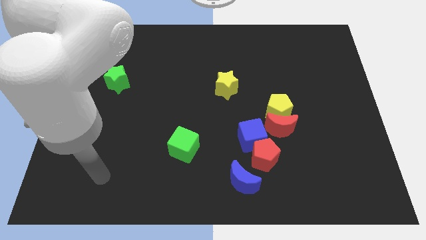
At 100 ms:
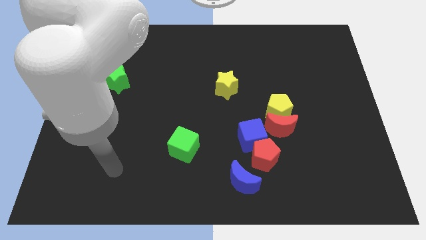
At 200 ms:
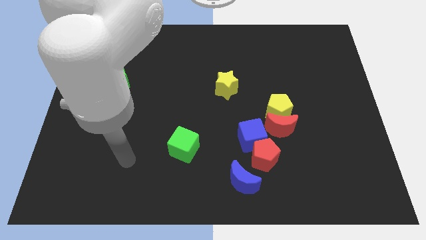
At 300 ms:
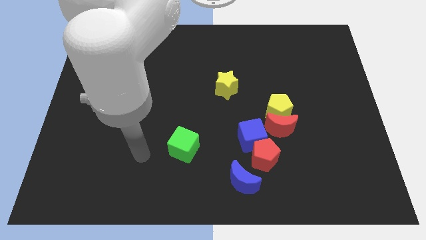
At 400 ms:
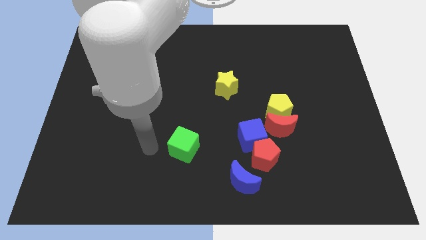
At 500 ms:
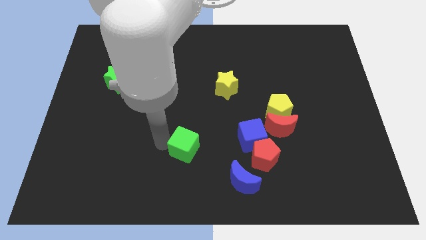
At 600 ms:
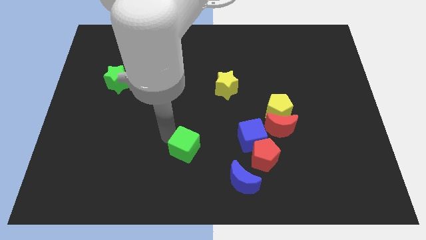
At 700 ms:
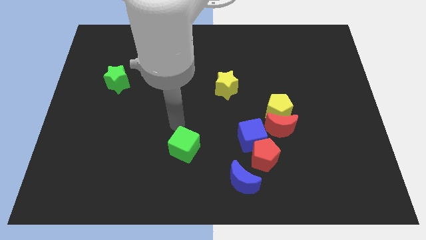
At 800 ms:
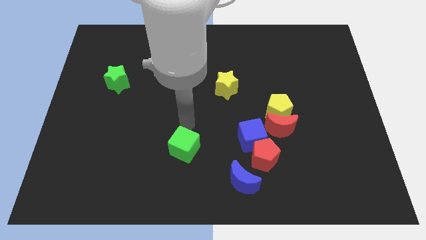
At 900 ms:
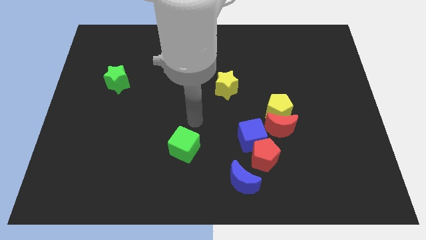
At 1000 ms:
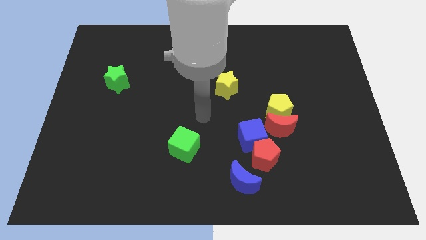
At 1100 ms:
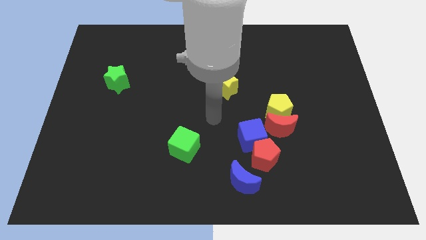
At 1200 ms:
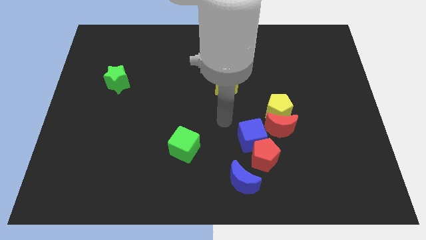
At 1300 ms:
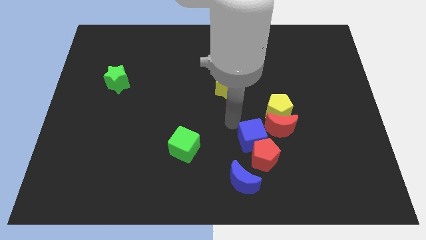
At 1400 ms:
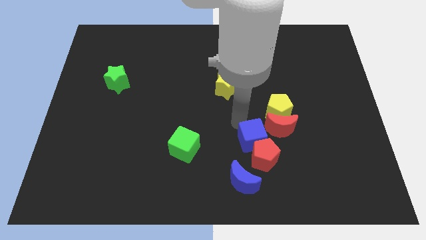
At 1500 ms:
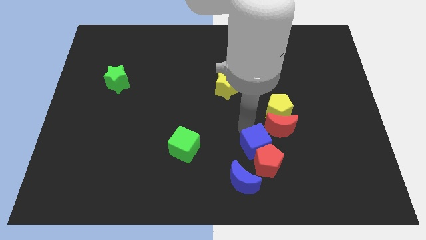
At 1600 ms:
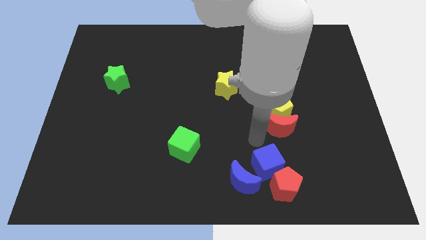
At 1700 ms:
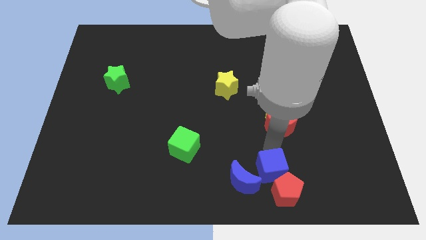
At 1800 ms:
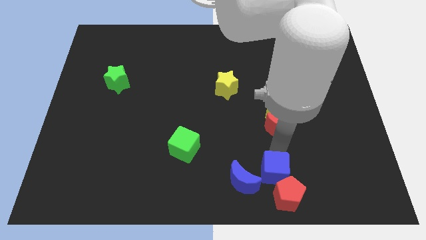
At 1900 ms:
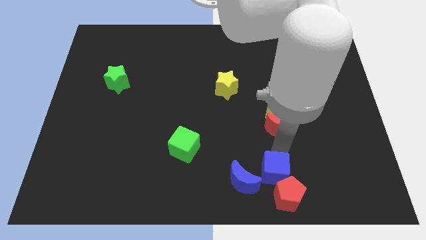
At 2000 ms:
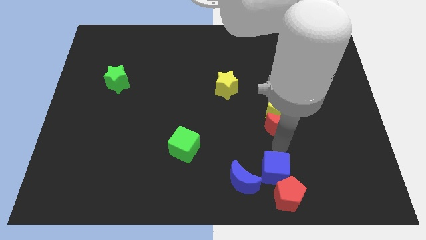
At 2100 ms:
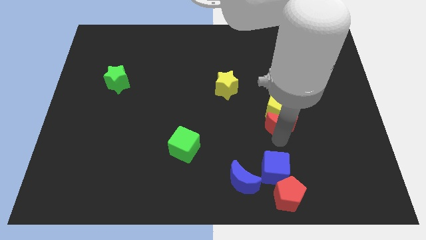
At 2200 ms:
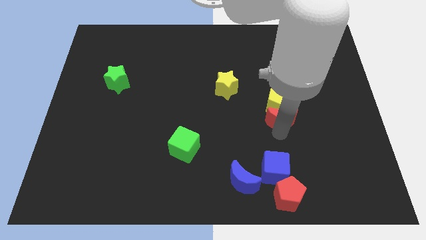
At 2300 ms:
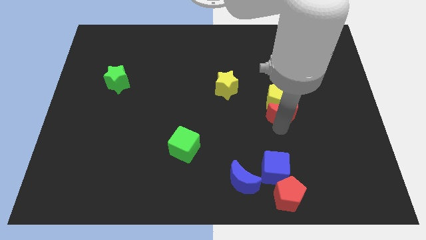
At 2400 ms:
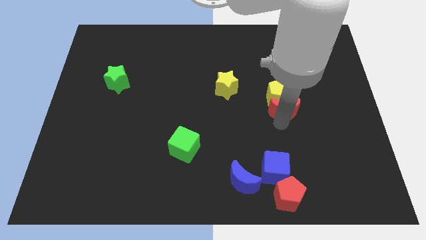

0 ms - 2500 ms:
move the red moon away from the group

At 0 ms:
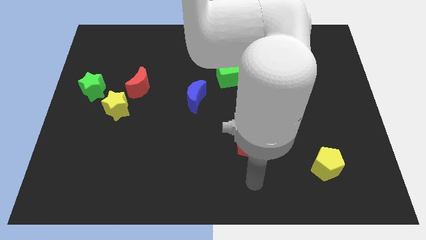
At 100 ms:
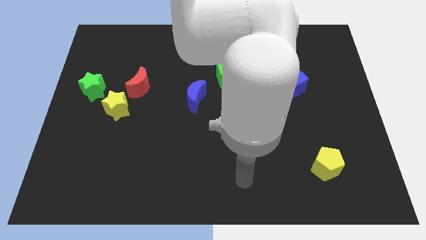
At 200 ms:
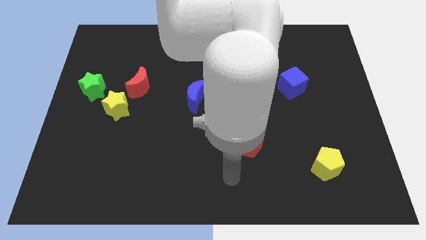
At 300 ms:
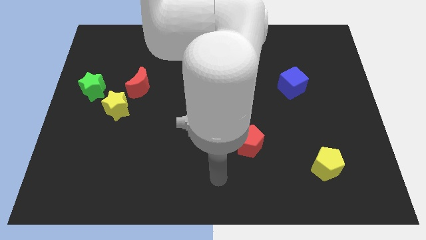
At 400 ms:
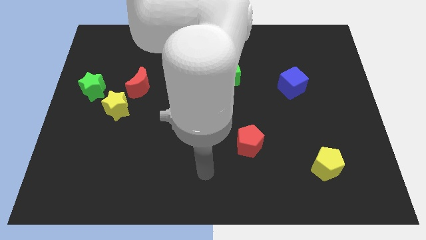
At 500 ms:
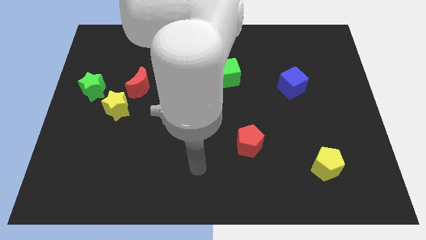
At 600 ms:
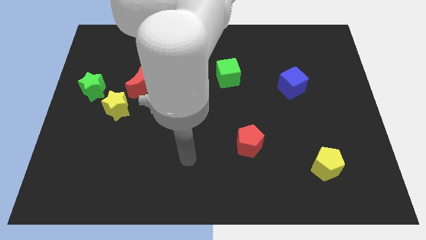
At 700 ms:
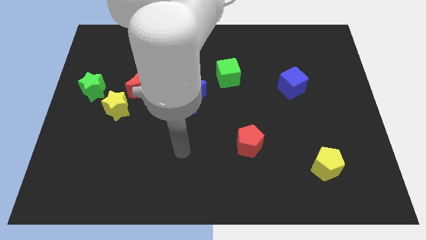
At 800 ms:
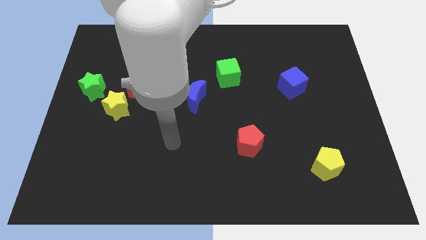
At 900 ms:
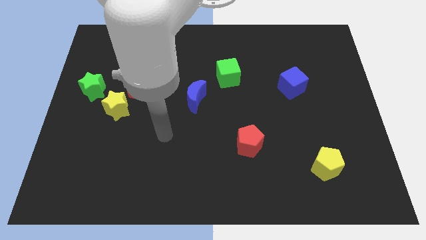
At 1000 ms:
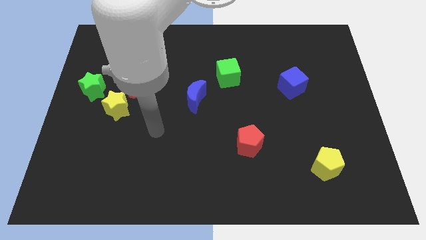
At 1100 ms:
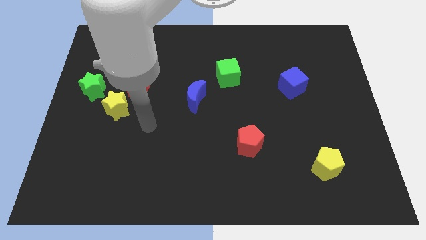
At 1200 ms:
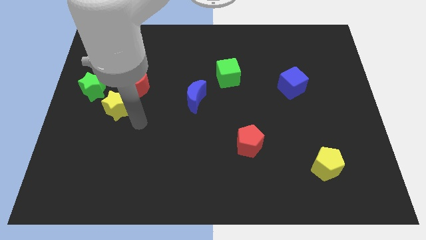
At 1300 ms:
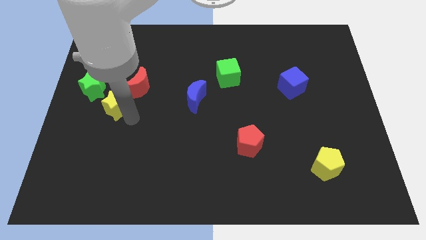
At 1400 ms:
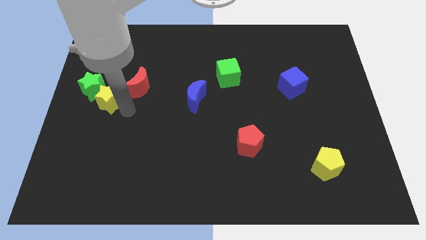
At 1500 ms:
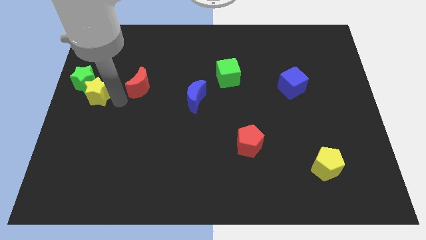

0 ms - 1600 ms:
move the red moon away from the yellow star

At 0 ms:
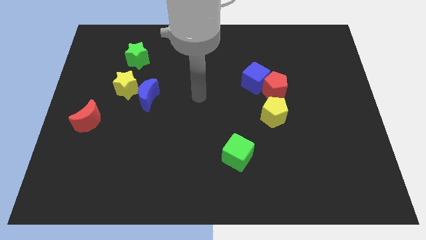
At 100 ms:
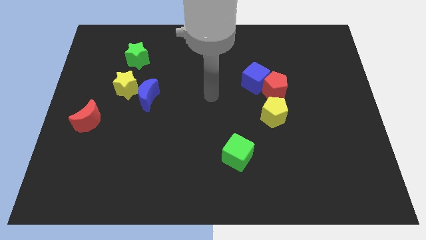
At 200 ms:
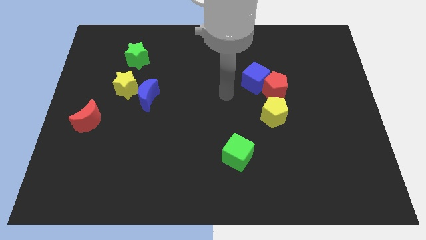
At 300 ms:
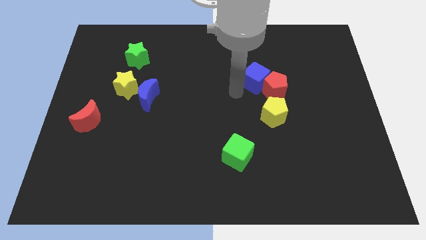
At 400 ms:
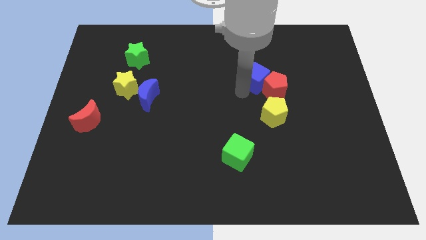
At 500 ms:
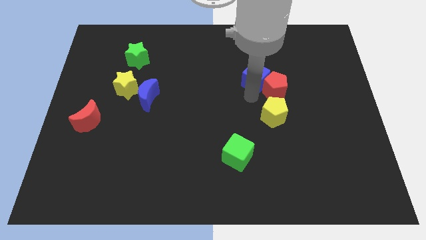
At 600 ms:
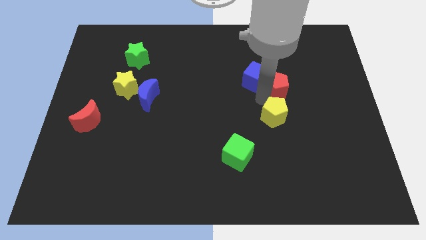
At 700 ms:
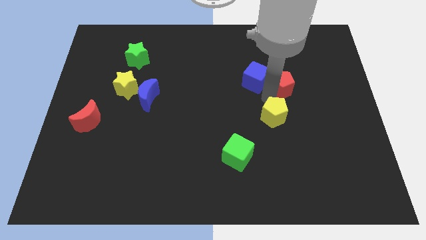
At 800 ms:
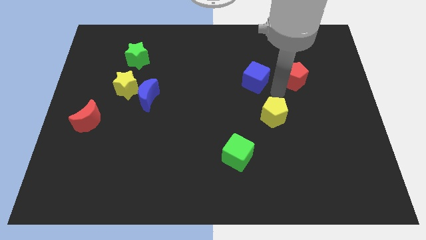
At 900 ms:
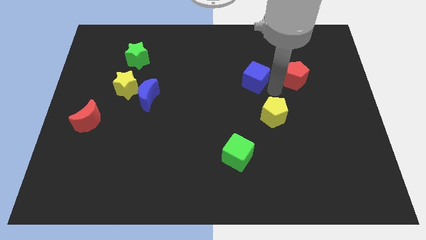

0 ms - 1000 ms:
move the blue cube away from the red pentagon

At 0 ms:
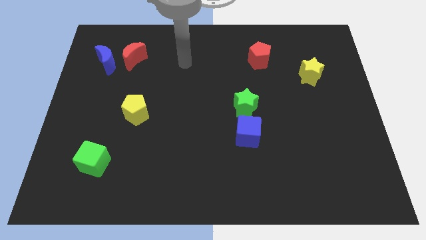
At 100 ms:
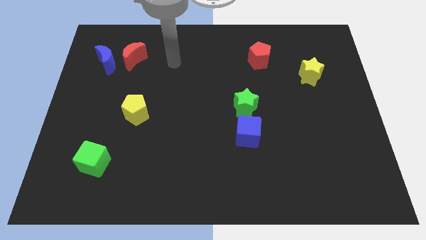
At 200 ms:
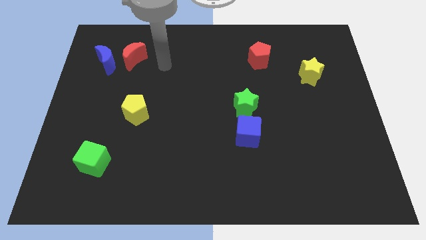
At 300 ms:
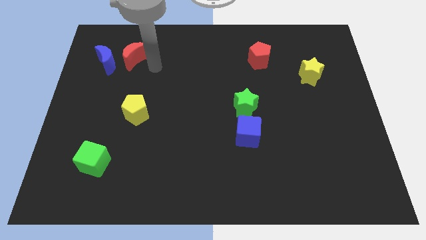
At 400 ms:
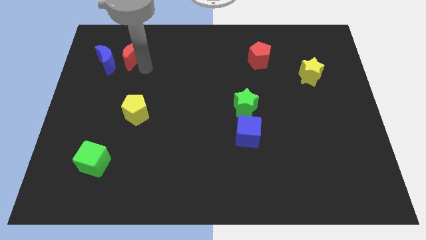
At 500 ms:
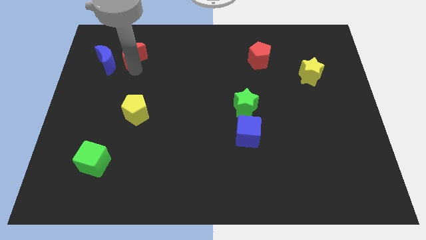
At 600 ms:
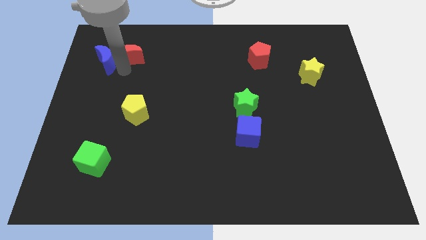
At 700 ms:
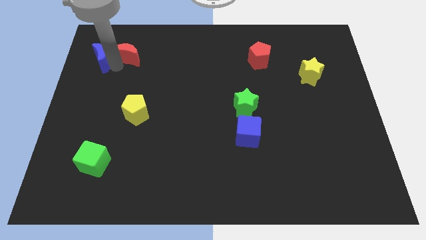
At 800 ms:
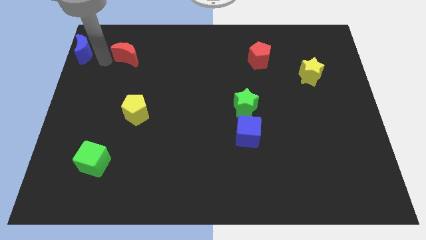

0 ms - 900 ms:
move the red moon away from the blue moon

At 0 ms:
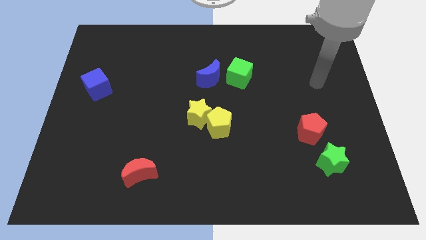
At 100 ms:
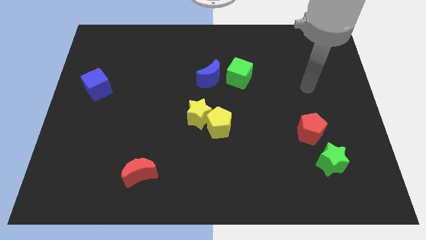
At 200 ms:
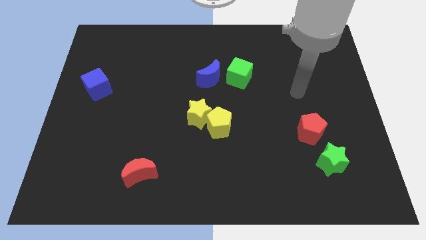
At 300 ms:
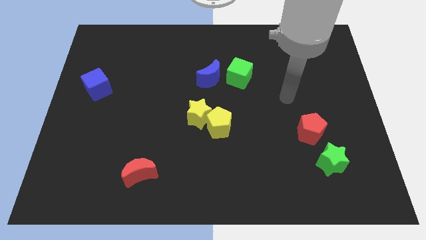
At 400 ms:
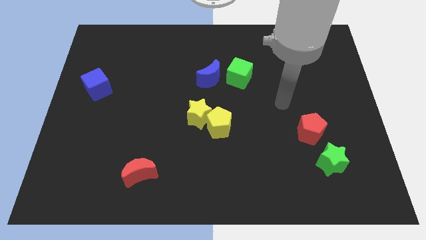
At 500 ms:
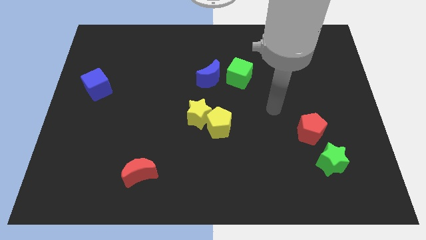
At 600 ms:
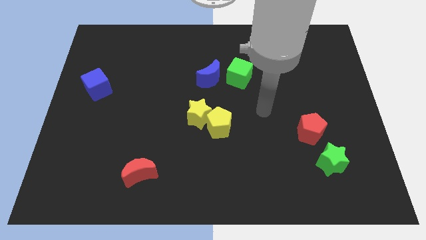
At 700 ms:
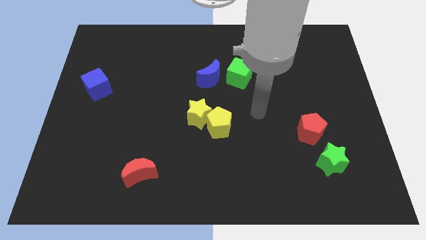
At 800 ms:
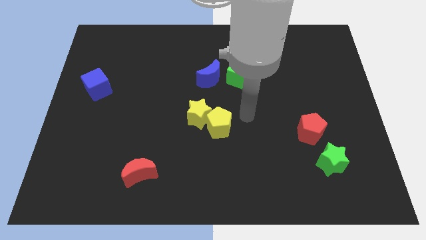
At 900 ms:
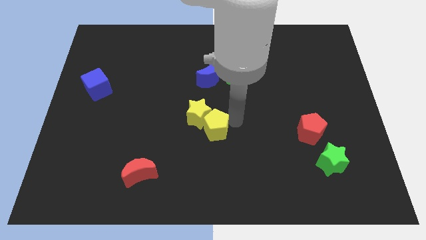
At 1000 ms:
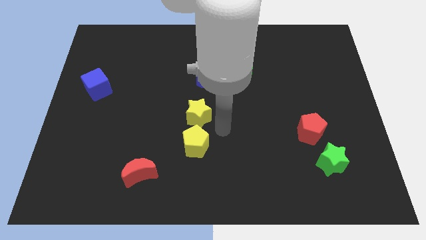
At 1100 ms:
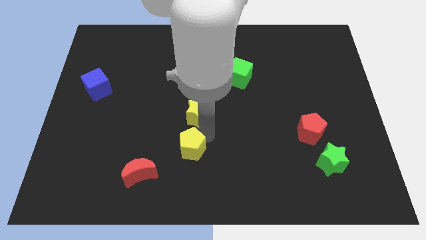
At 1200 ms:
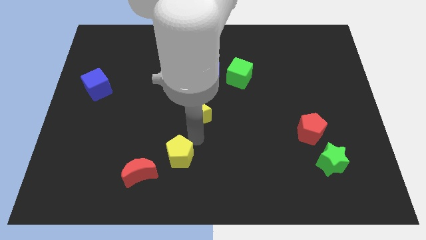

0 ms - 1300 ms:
move the yellow star away from the yellow pentagon

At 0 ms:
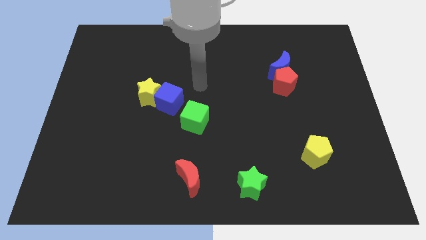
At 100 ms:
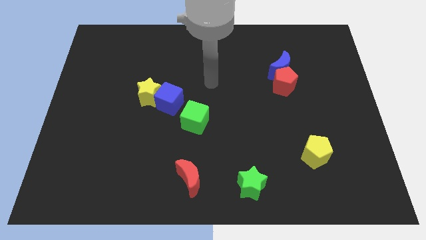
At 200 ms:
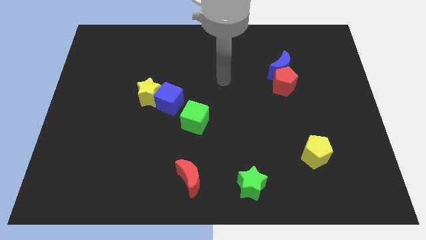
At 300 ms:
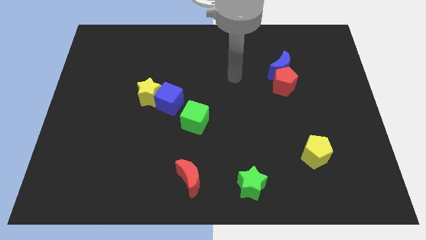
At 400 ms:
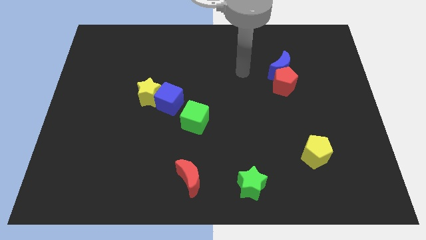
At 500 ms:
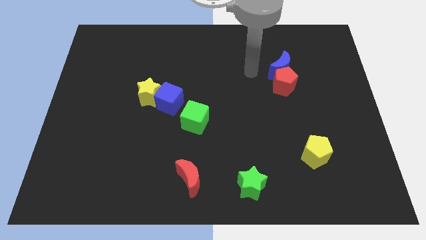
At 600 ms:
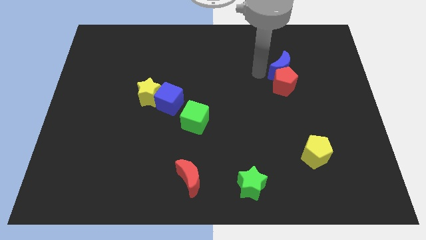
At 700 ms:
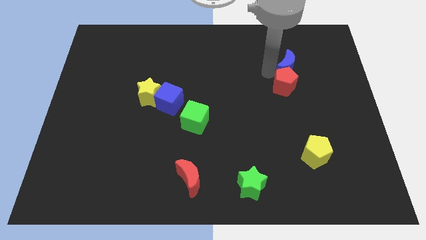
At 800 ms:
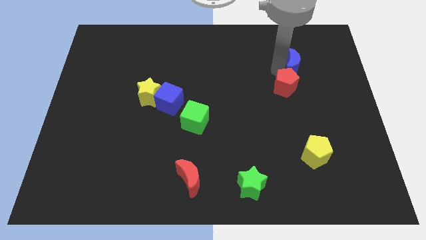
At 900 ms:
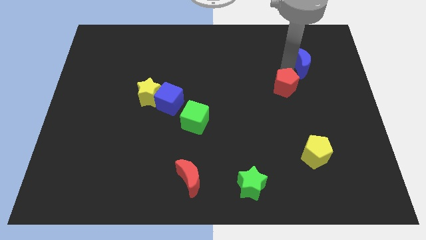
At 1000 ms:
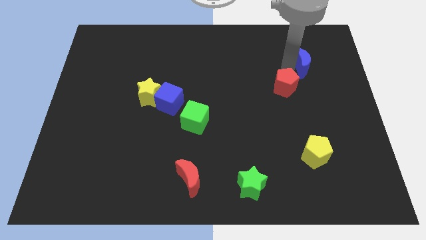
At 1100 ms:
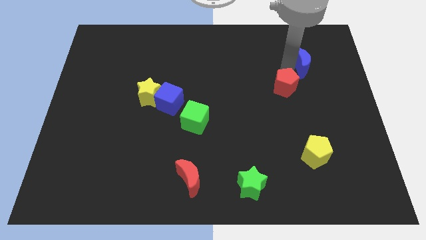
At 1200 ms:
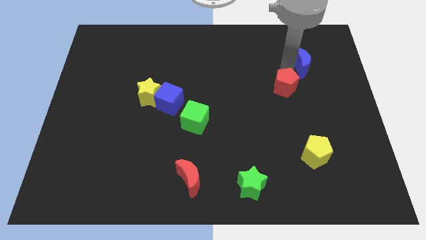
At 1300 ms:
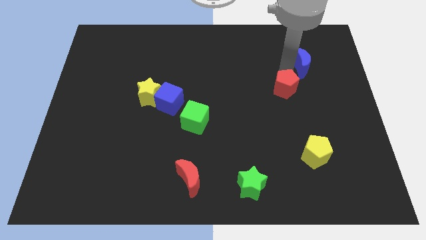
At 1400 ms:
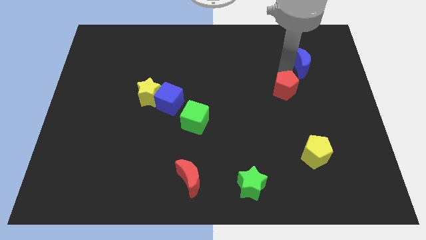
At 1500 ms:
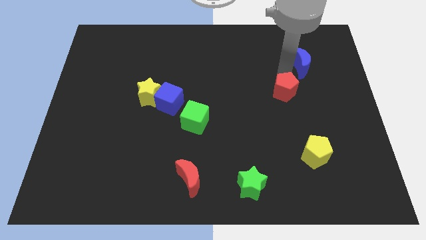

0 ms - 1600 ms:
pull the red pentagon apart from the blue moon

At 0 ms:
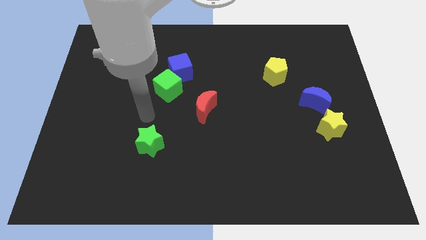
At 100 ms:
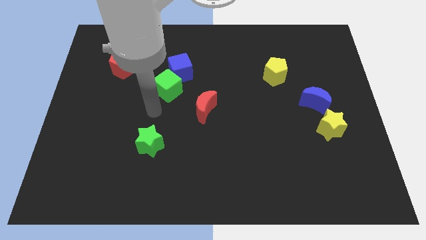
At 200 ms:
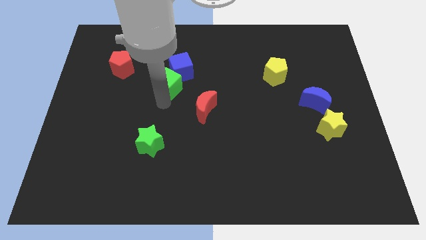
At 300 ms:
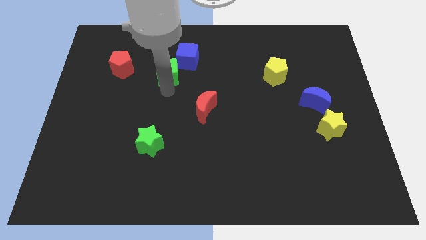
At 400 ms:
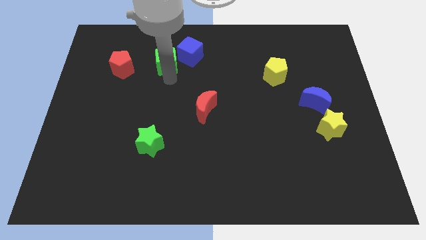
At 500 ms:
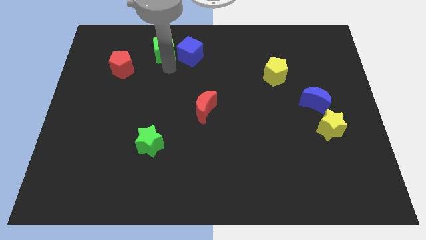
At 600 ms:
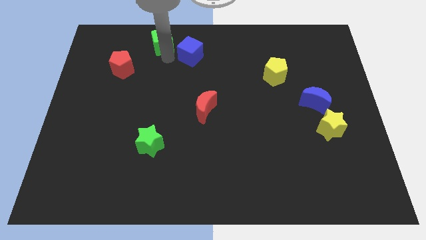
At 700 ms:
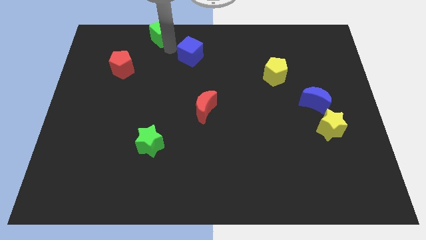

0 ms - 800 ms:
separate the blue cube from the green cube
